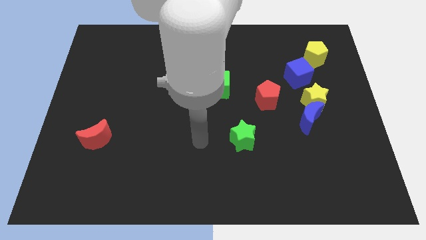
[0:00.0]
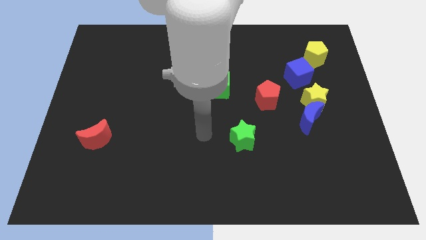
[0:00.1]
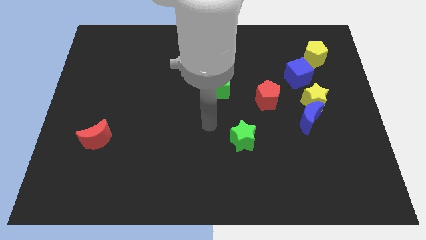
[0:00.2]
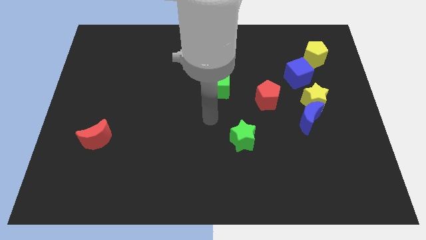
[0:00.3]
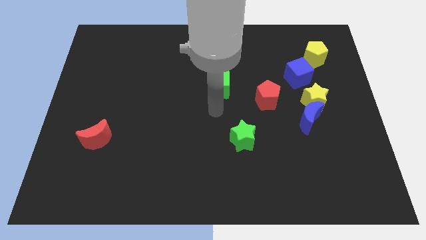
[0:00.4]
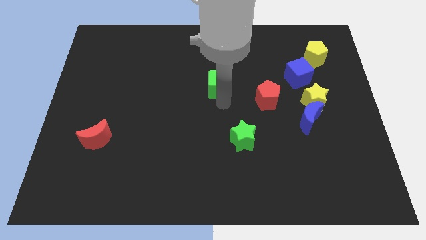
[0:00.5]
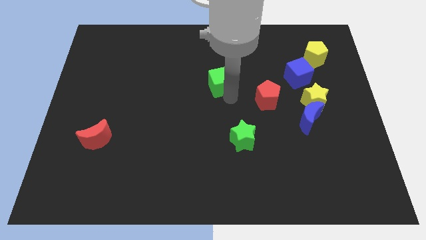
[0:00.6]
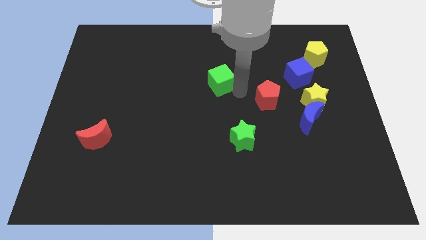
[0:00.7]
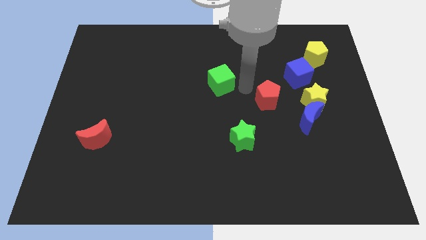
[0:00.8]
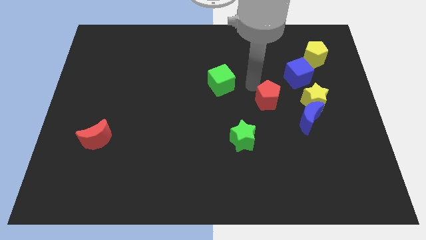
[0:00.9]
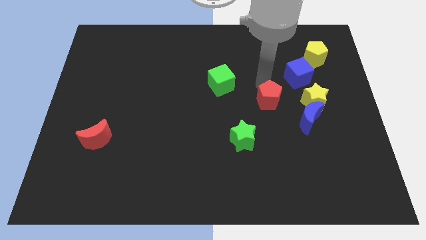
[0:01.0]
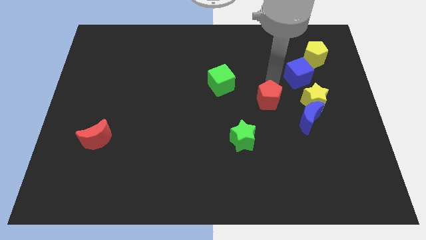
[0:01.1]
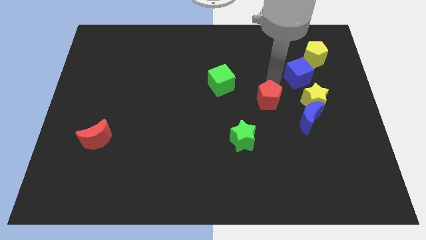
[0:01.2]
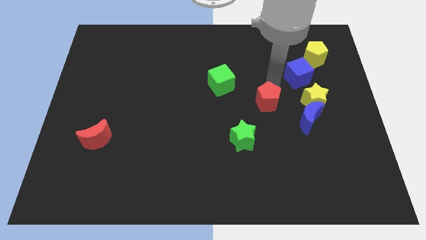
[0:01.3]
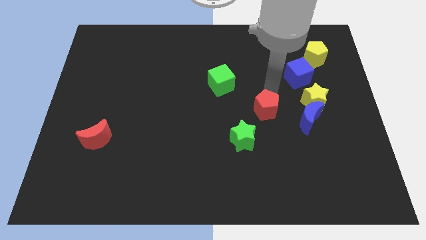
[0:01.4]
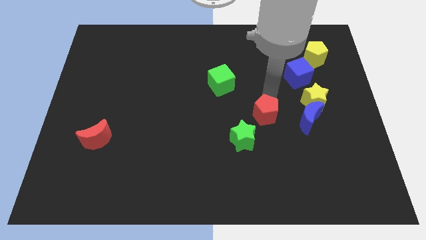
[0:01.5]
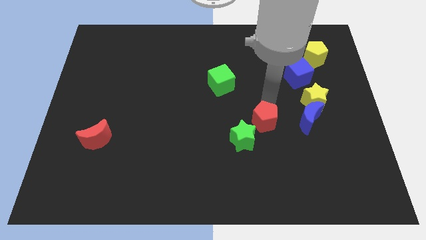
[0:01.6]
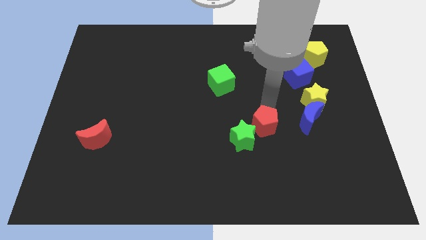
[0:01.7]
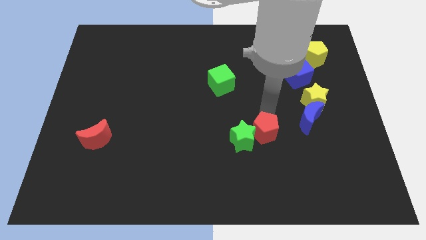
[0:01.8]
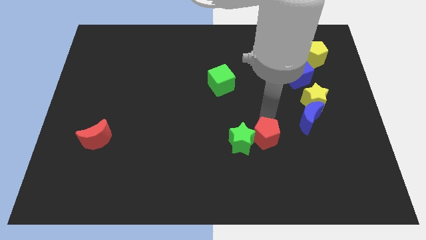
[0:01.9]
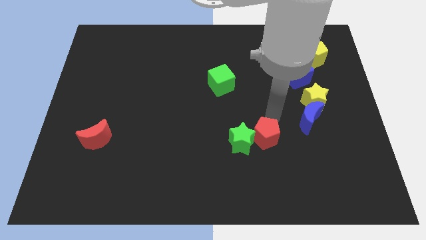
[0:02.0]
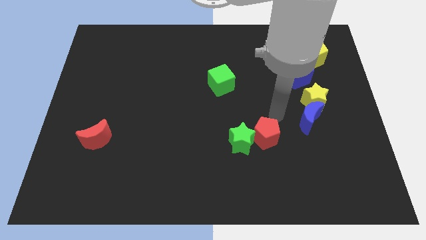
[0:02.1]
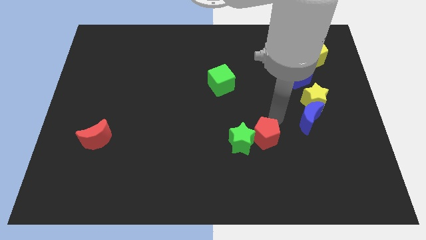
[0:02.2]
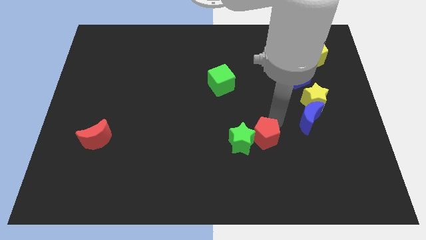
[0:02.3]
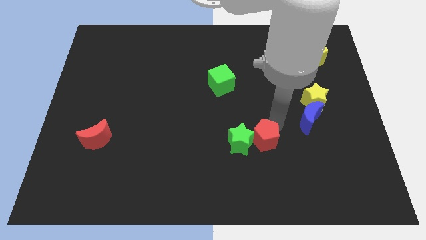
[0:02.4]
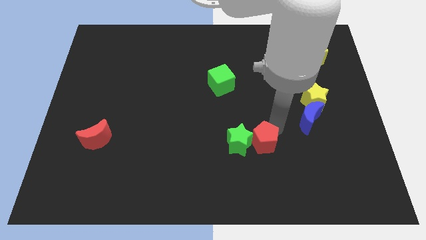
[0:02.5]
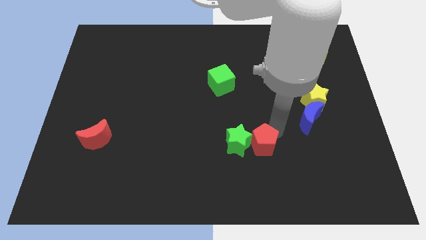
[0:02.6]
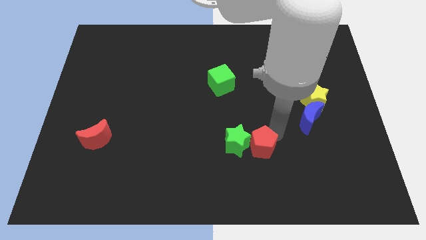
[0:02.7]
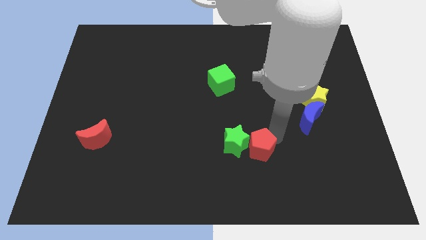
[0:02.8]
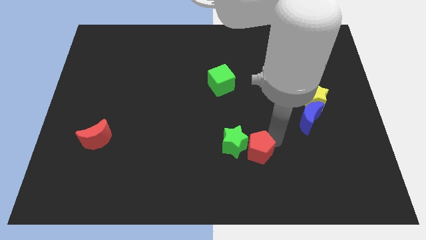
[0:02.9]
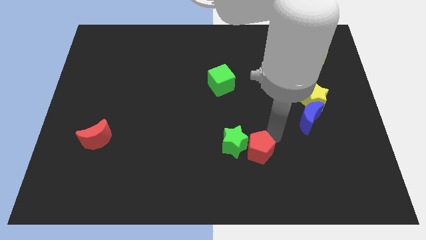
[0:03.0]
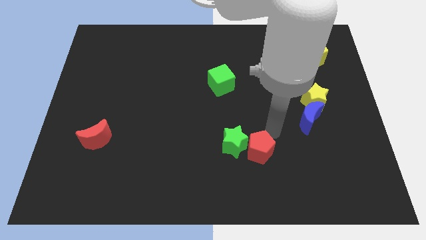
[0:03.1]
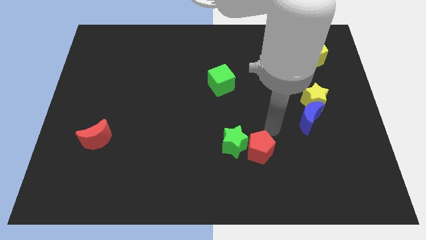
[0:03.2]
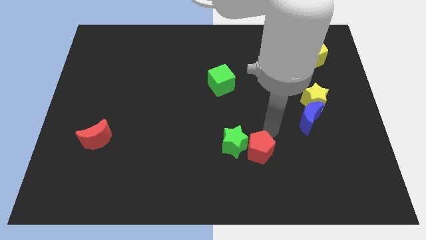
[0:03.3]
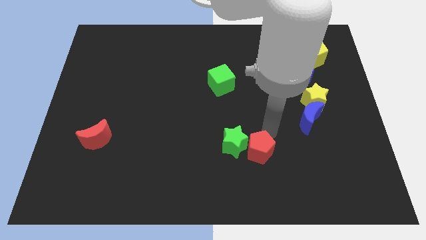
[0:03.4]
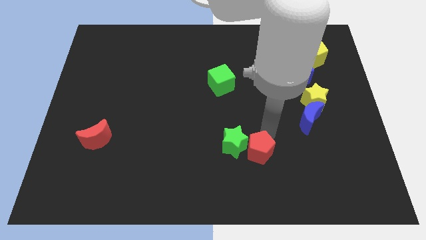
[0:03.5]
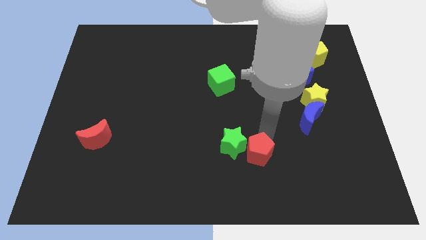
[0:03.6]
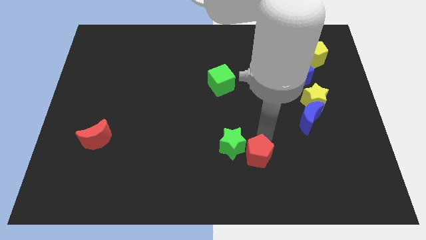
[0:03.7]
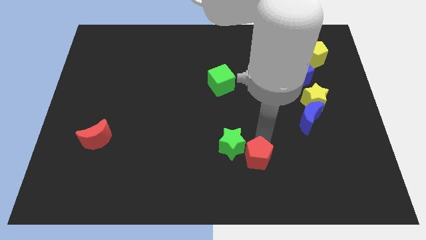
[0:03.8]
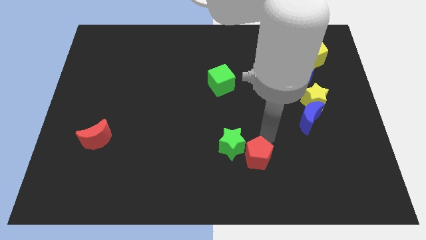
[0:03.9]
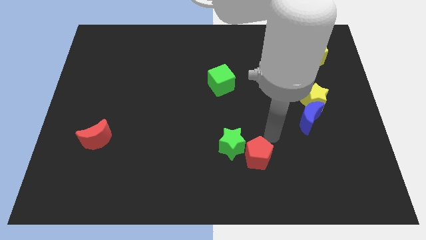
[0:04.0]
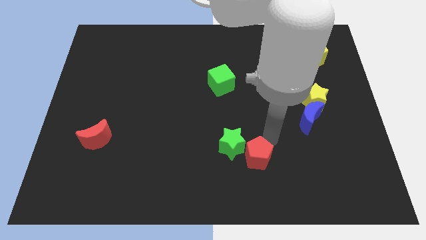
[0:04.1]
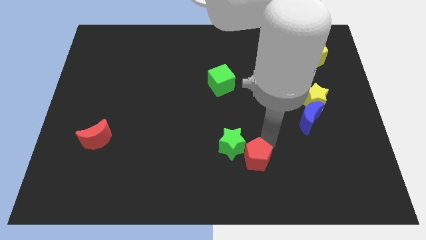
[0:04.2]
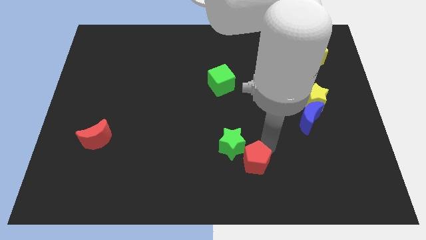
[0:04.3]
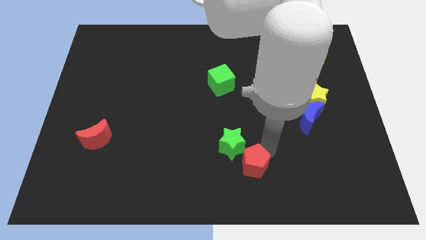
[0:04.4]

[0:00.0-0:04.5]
push the red pentagon to the bottom

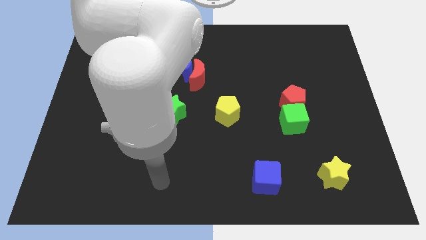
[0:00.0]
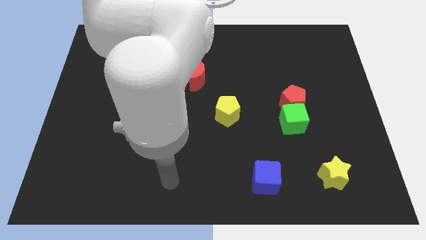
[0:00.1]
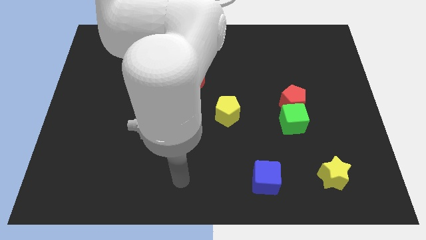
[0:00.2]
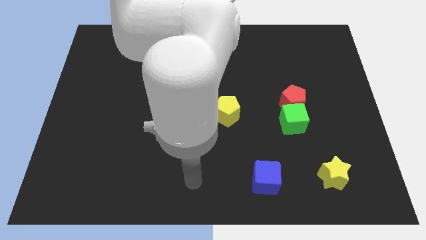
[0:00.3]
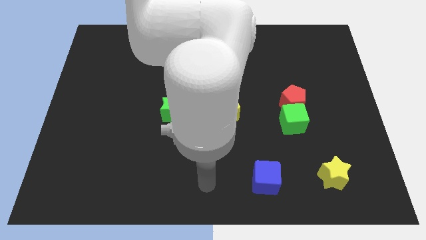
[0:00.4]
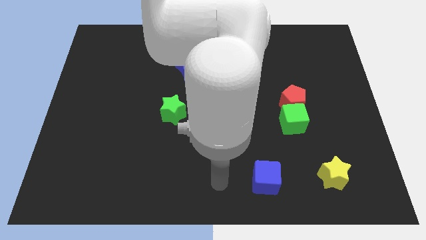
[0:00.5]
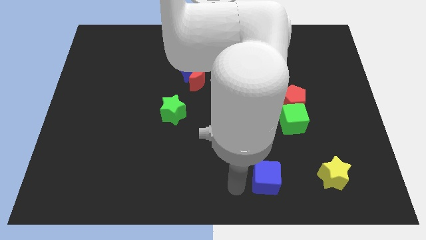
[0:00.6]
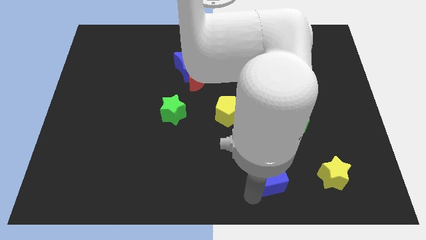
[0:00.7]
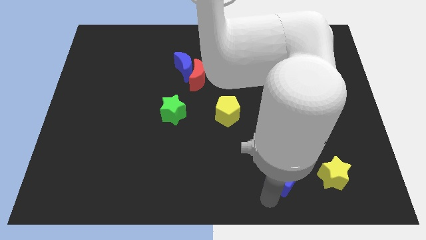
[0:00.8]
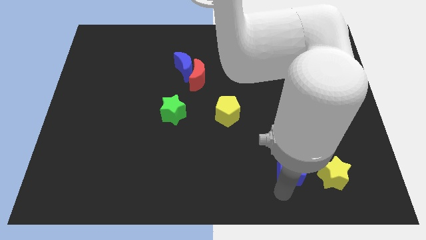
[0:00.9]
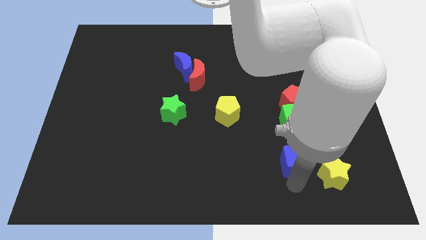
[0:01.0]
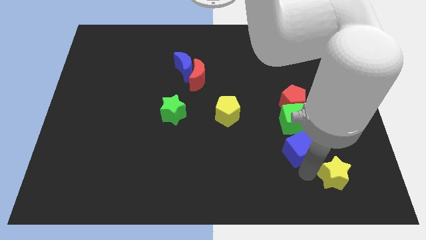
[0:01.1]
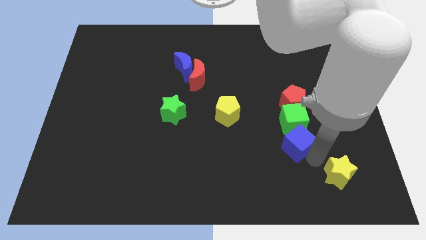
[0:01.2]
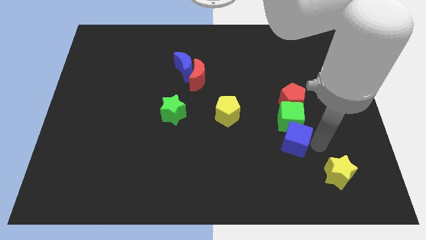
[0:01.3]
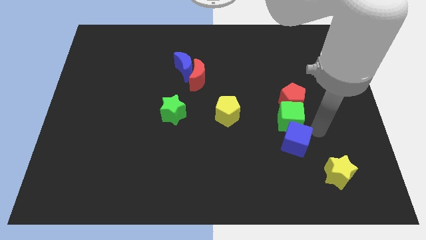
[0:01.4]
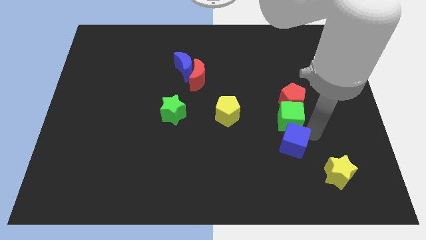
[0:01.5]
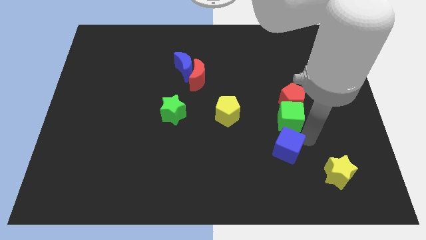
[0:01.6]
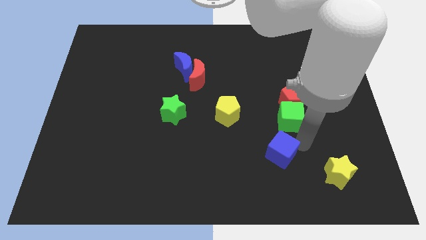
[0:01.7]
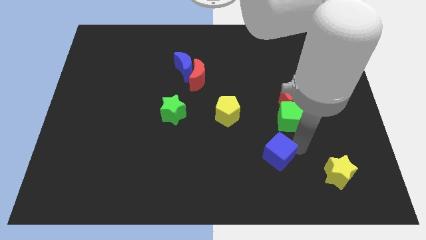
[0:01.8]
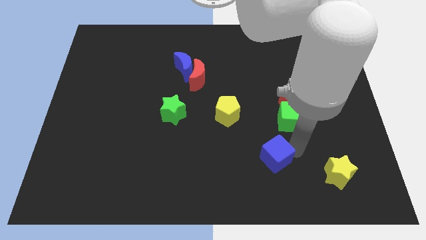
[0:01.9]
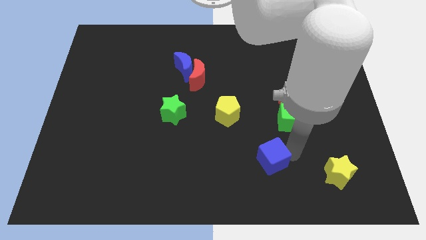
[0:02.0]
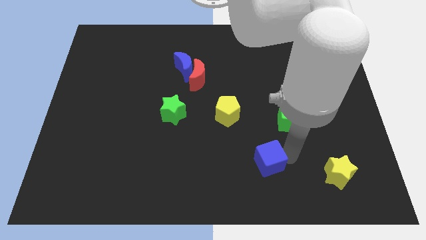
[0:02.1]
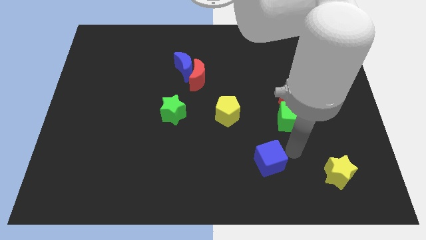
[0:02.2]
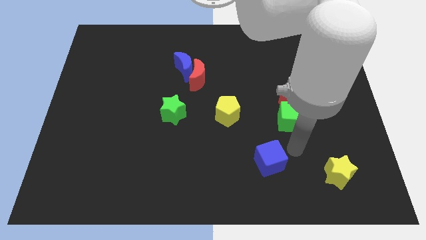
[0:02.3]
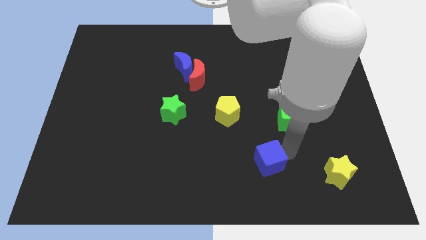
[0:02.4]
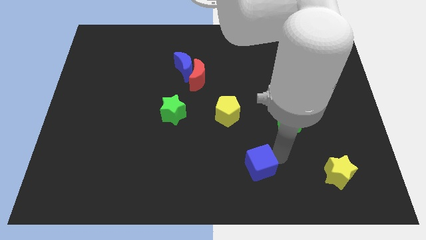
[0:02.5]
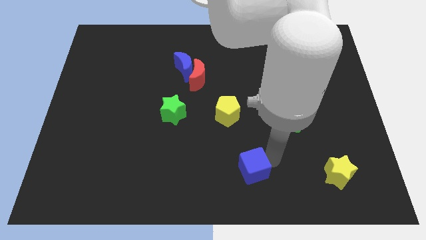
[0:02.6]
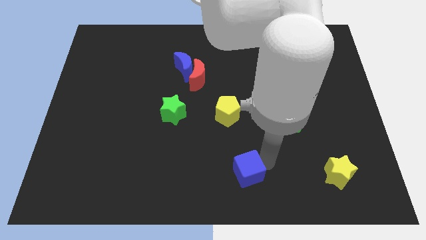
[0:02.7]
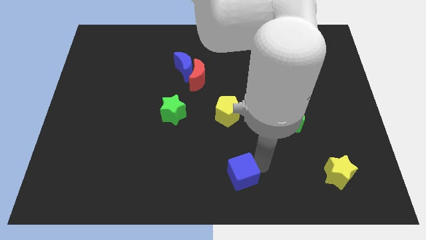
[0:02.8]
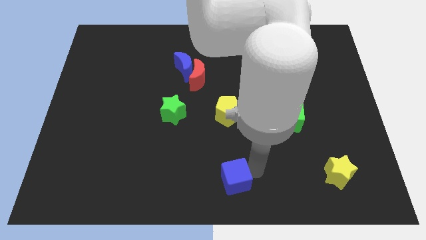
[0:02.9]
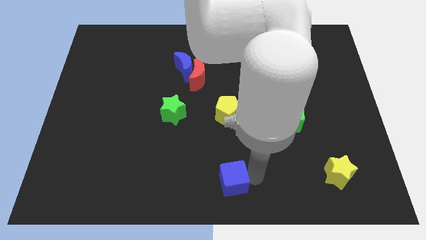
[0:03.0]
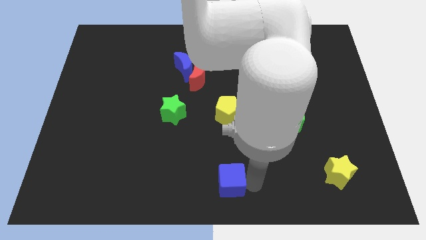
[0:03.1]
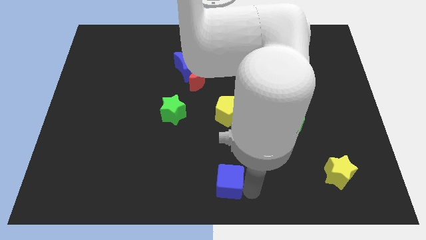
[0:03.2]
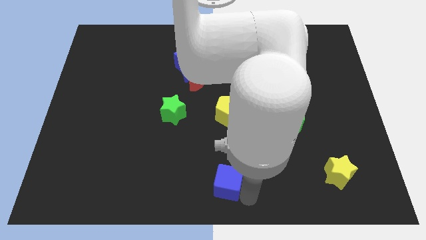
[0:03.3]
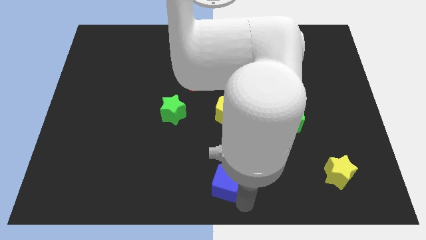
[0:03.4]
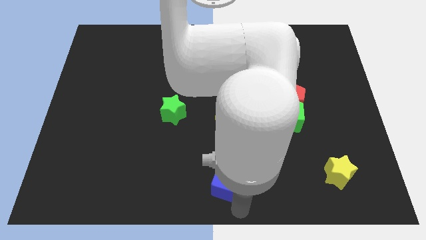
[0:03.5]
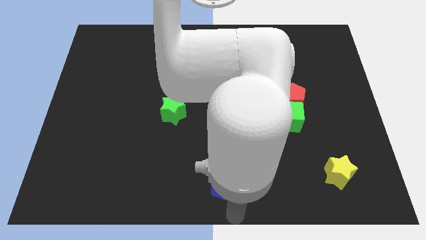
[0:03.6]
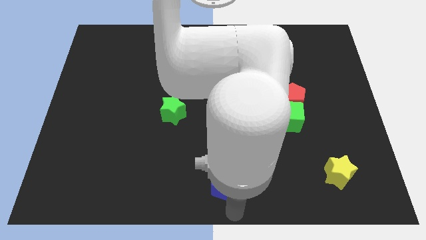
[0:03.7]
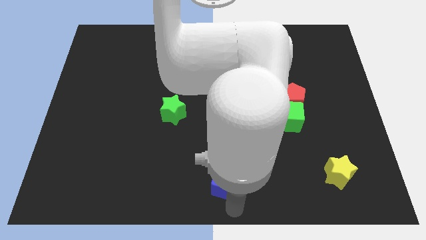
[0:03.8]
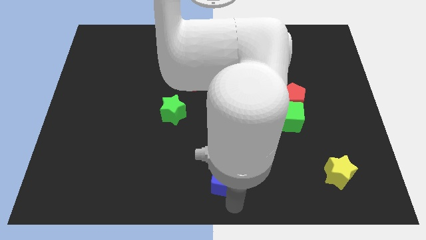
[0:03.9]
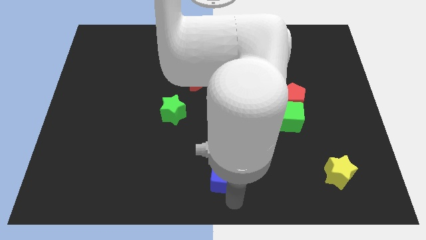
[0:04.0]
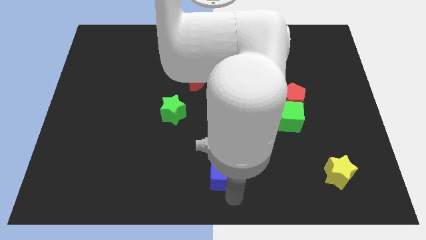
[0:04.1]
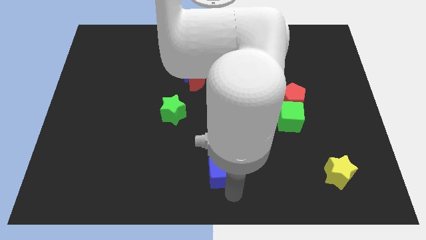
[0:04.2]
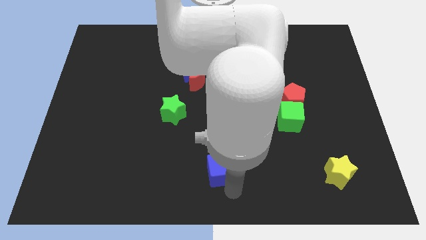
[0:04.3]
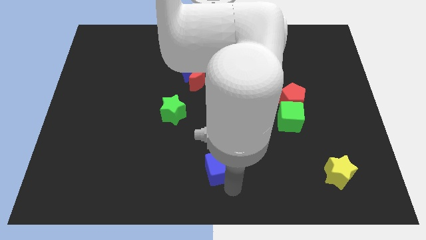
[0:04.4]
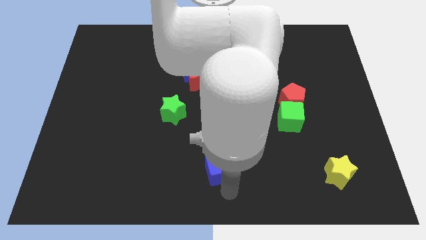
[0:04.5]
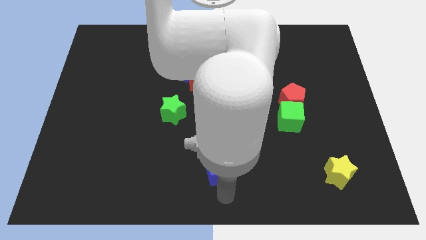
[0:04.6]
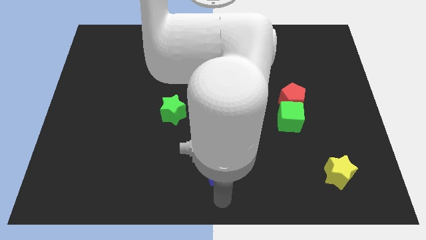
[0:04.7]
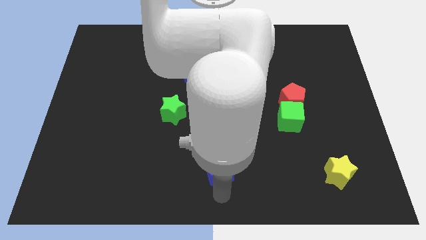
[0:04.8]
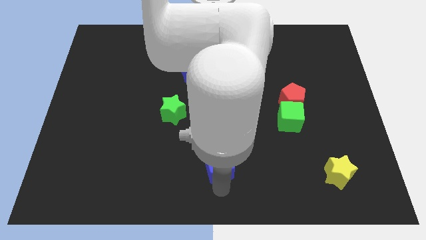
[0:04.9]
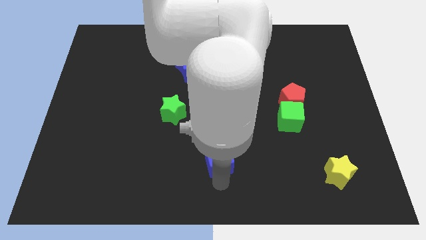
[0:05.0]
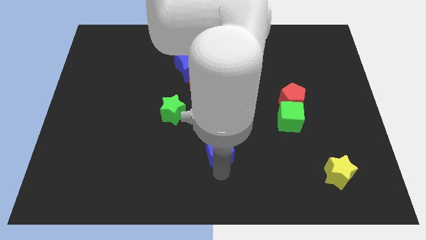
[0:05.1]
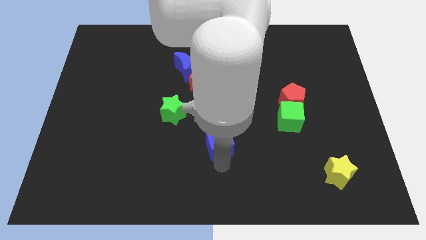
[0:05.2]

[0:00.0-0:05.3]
move the blue cube to the middle
